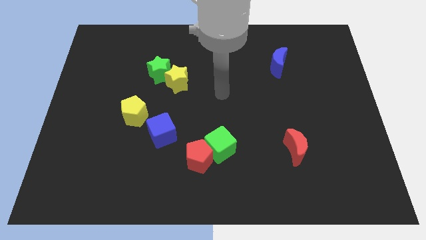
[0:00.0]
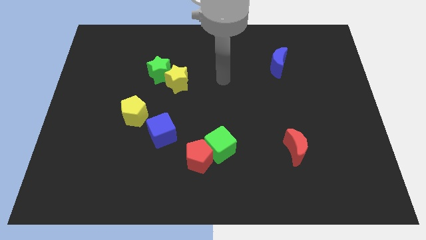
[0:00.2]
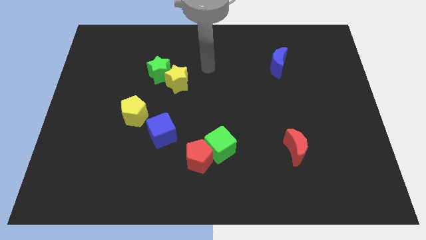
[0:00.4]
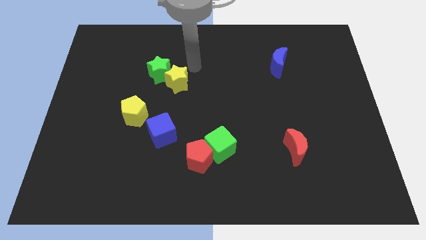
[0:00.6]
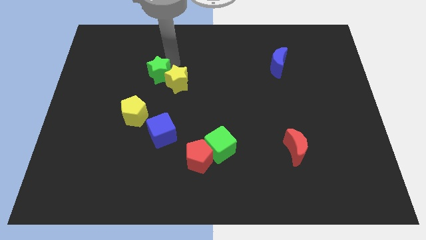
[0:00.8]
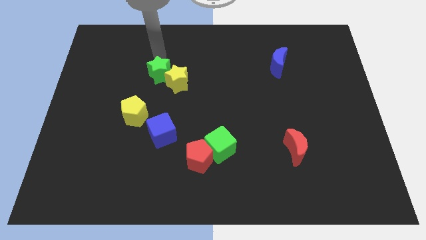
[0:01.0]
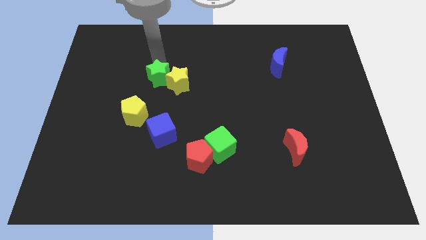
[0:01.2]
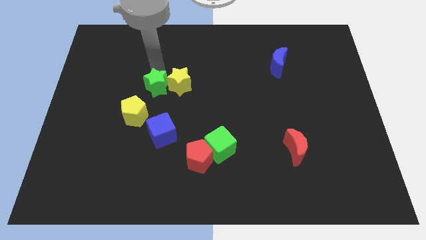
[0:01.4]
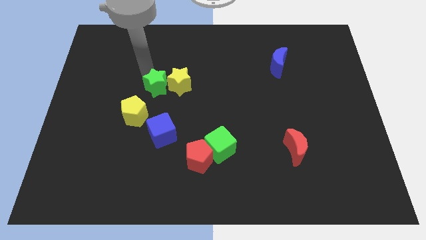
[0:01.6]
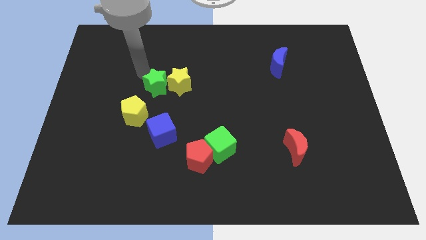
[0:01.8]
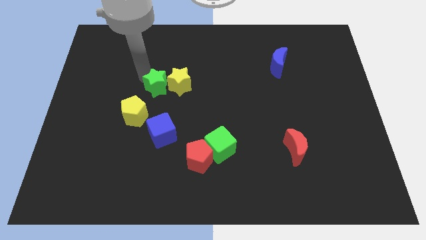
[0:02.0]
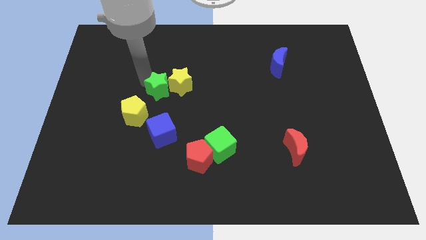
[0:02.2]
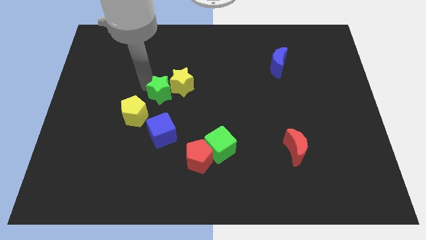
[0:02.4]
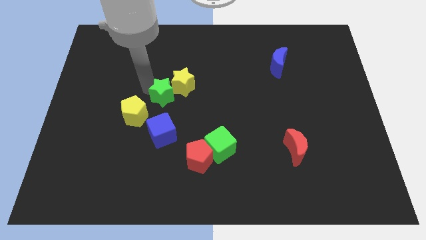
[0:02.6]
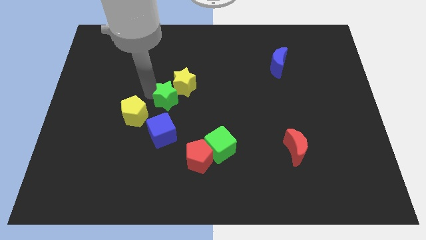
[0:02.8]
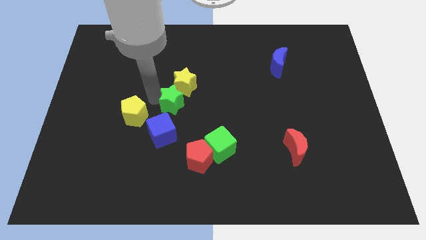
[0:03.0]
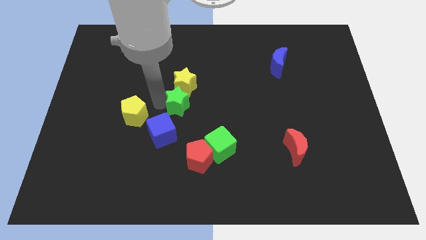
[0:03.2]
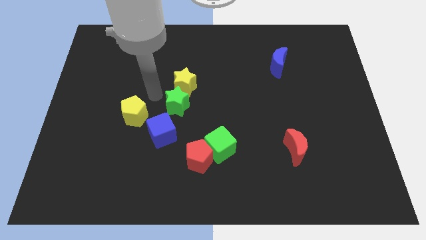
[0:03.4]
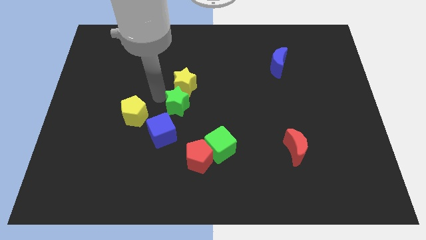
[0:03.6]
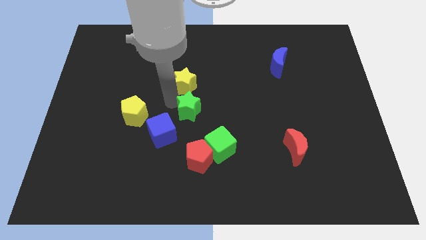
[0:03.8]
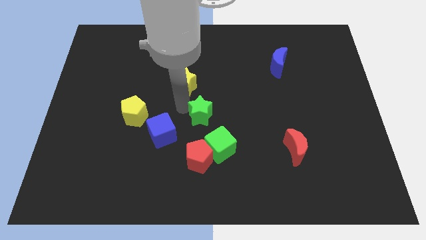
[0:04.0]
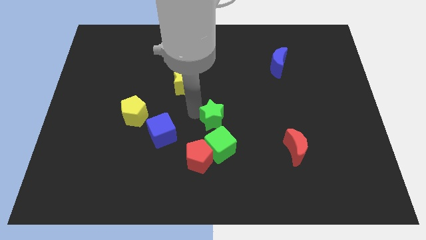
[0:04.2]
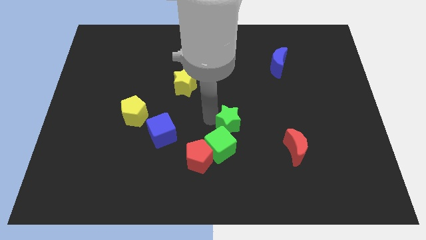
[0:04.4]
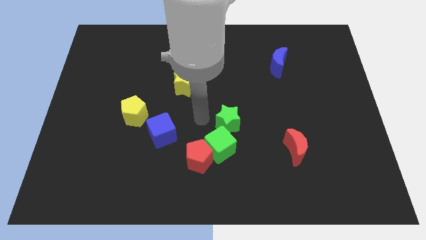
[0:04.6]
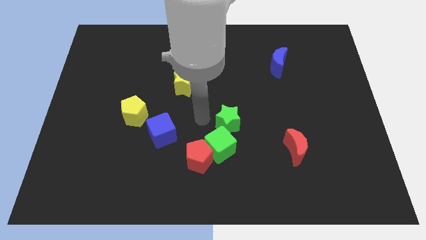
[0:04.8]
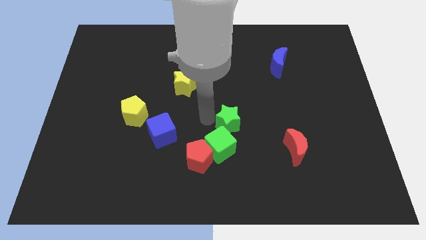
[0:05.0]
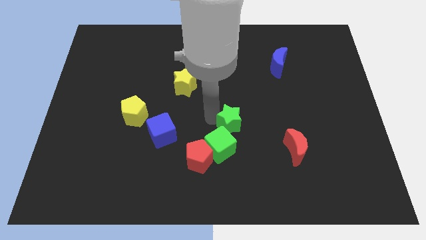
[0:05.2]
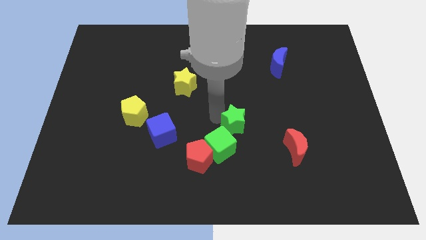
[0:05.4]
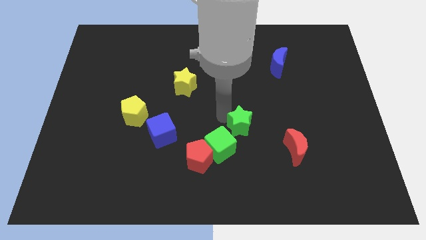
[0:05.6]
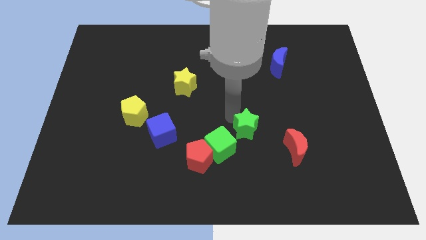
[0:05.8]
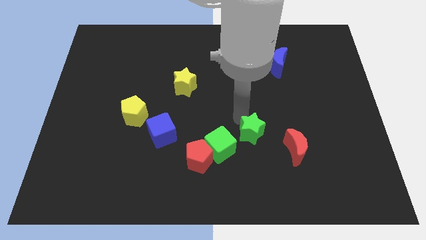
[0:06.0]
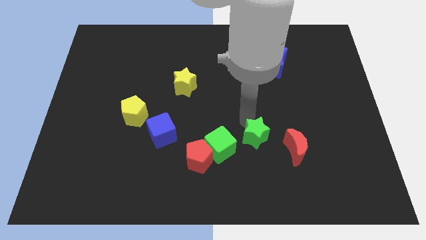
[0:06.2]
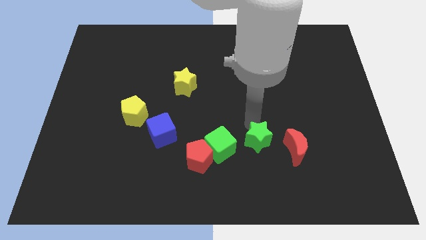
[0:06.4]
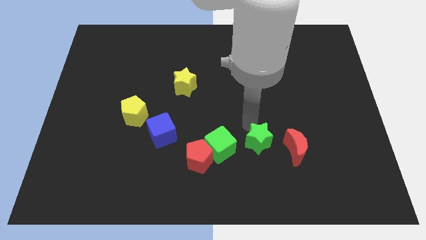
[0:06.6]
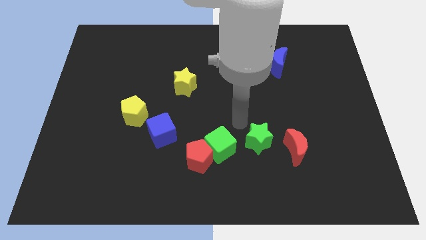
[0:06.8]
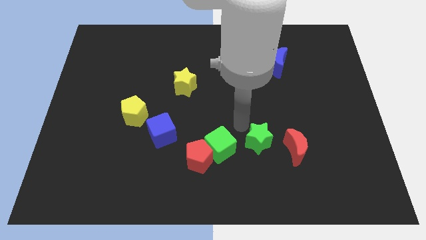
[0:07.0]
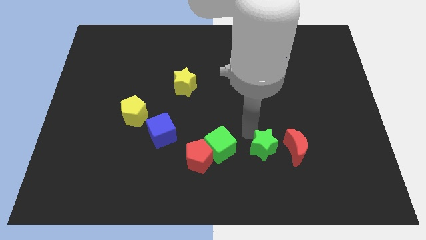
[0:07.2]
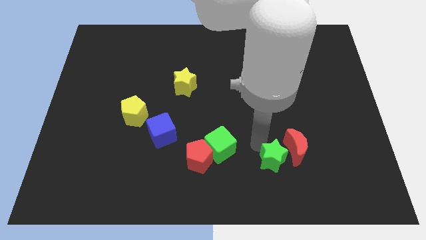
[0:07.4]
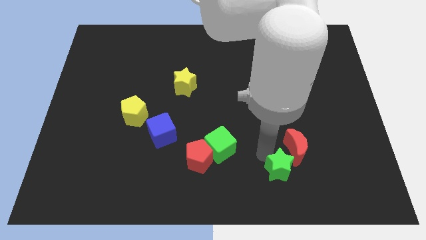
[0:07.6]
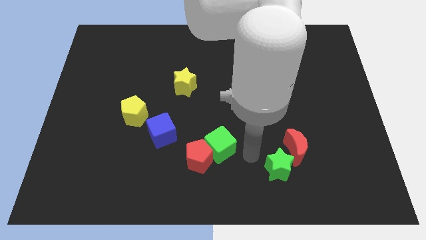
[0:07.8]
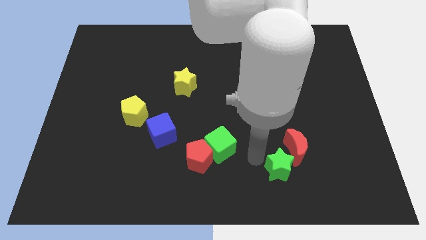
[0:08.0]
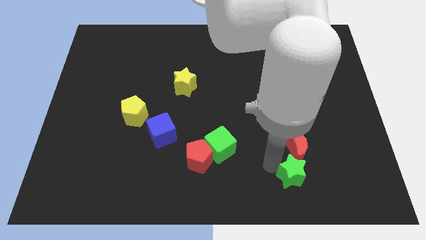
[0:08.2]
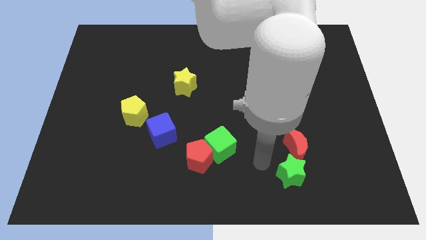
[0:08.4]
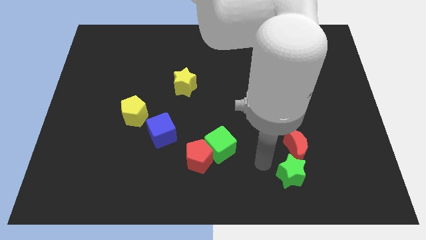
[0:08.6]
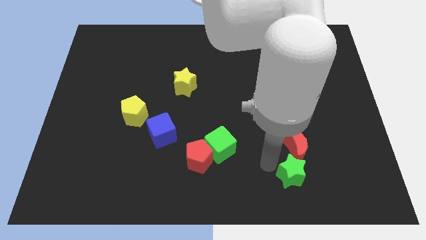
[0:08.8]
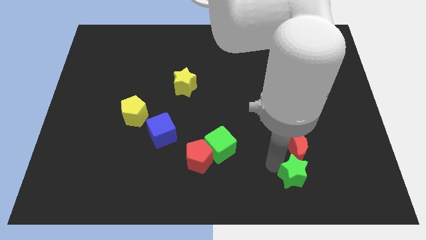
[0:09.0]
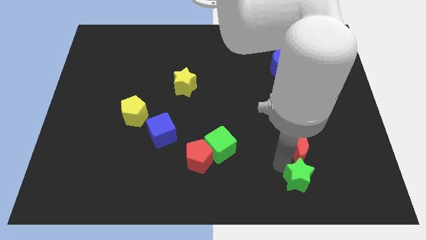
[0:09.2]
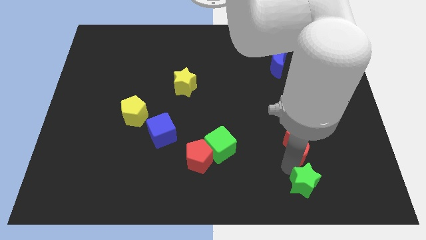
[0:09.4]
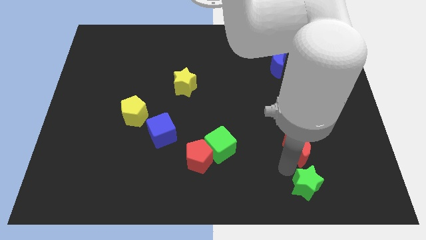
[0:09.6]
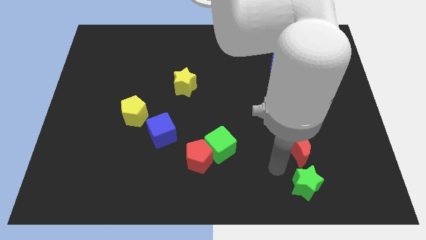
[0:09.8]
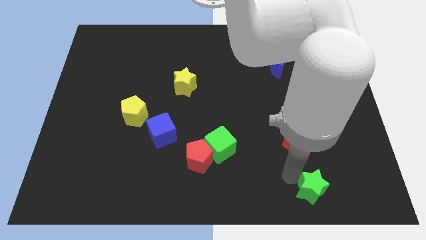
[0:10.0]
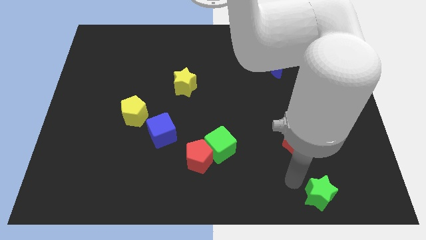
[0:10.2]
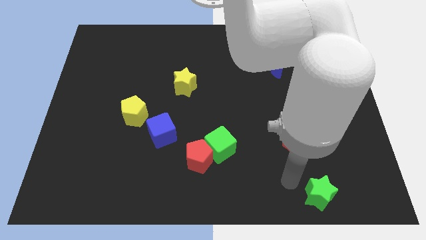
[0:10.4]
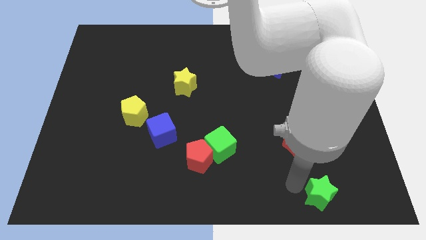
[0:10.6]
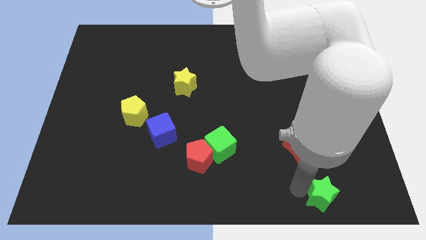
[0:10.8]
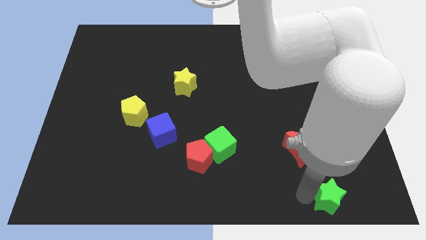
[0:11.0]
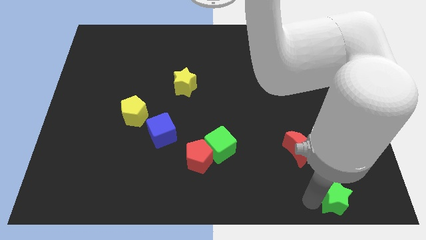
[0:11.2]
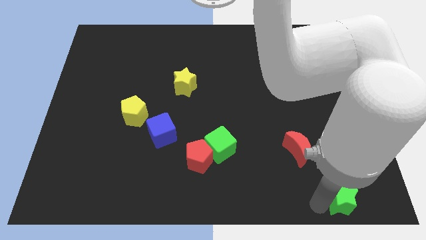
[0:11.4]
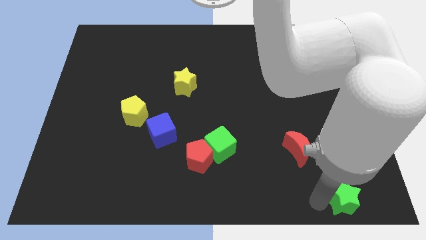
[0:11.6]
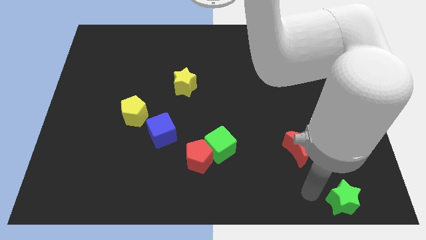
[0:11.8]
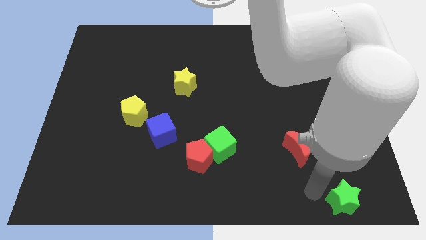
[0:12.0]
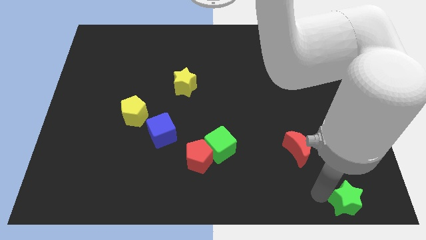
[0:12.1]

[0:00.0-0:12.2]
push the green star to the bottom right
